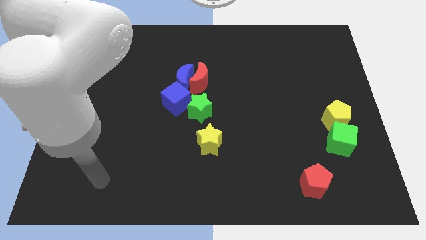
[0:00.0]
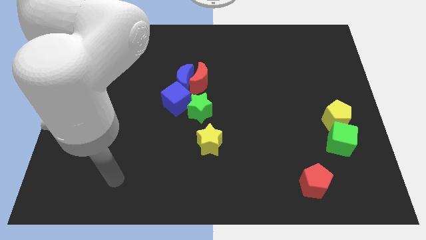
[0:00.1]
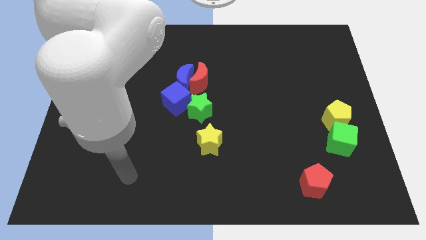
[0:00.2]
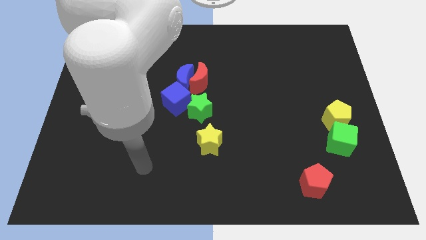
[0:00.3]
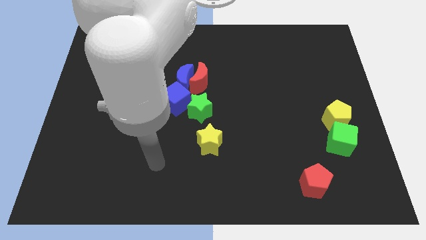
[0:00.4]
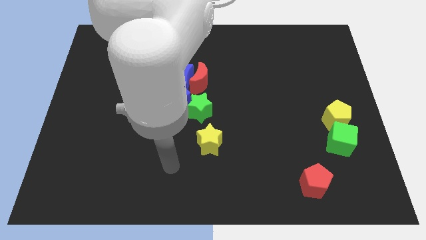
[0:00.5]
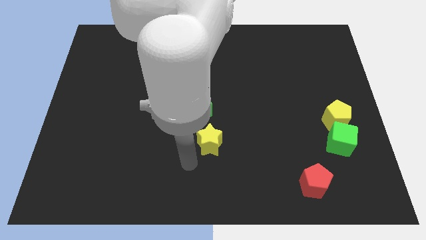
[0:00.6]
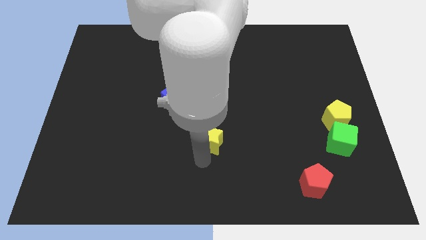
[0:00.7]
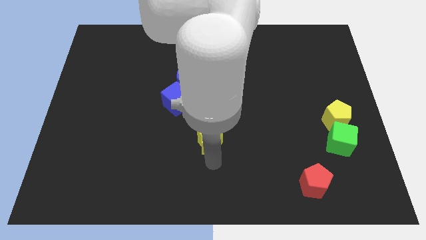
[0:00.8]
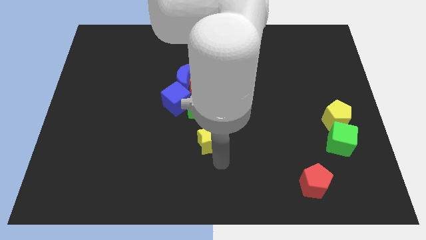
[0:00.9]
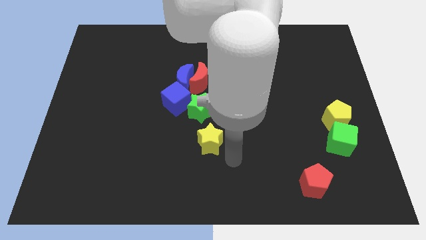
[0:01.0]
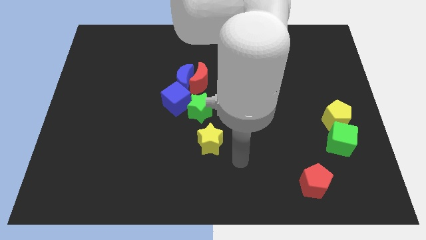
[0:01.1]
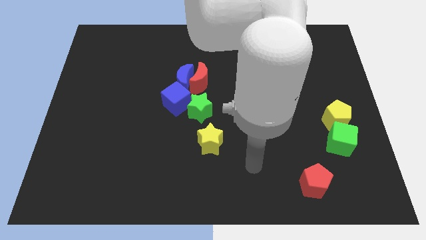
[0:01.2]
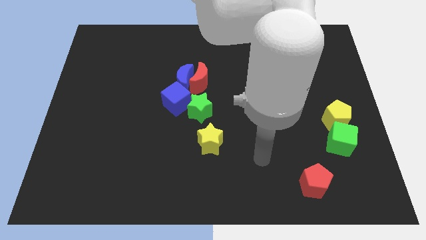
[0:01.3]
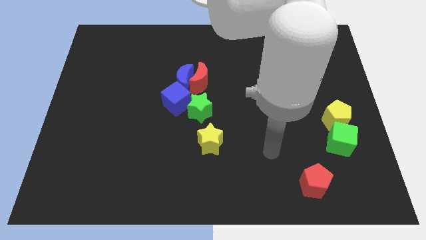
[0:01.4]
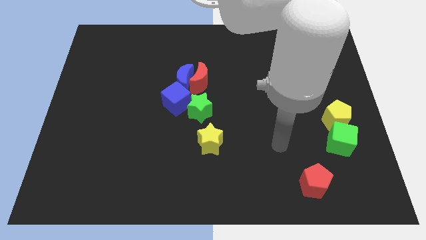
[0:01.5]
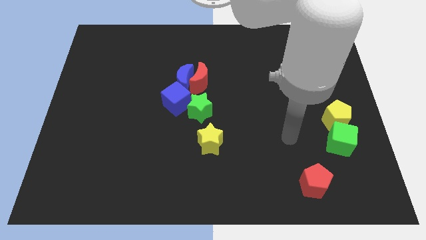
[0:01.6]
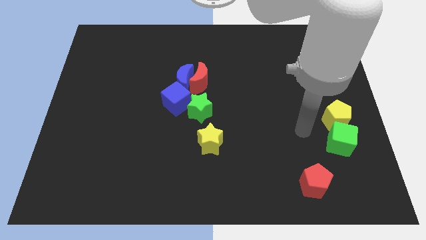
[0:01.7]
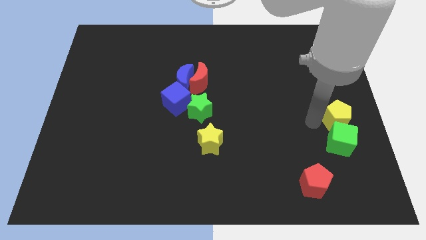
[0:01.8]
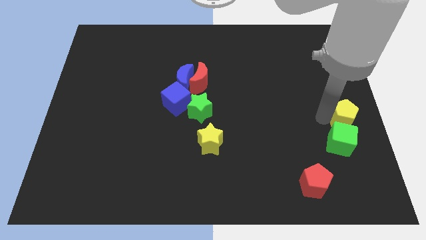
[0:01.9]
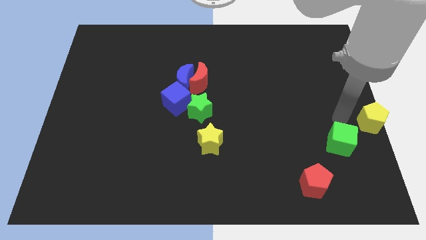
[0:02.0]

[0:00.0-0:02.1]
move the green cube away from the yellow pentagon

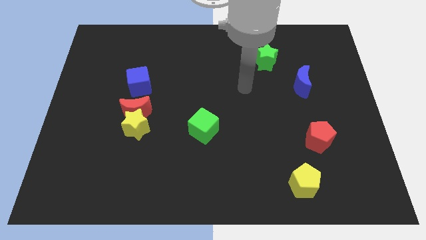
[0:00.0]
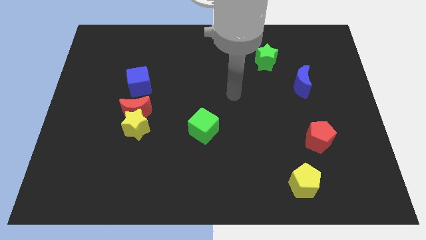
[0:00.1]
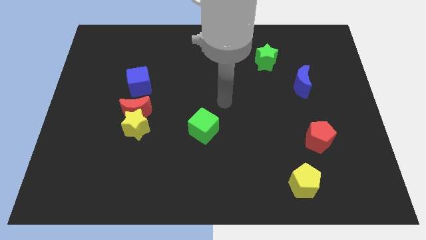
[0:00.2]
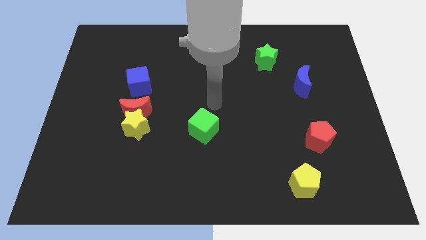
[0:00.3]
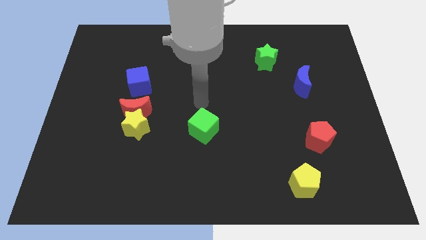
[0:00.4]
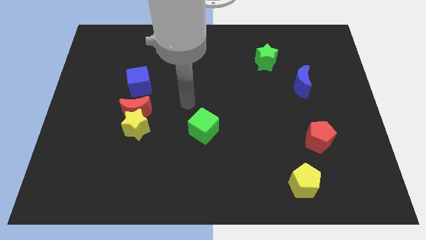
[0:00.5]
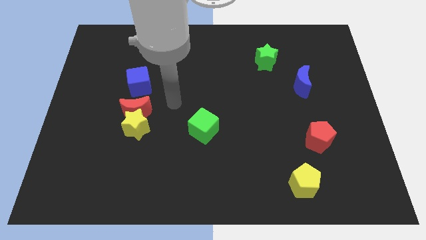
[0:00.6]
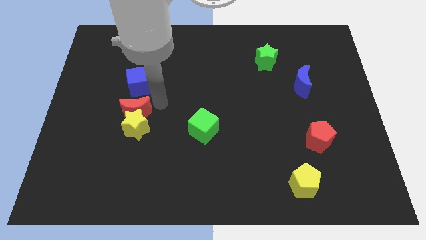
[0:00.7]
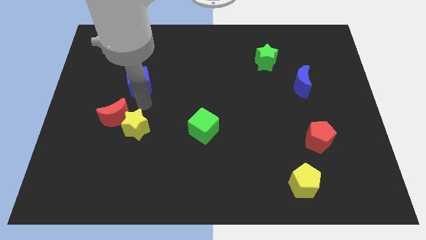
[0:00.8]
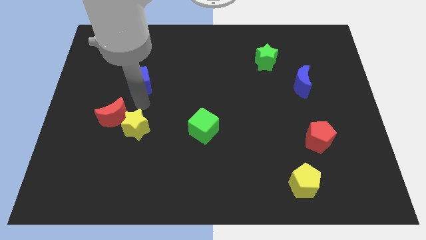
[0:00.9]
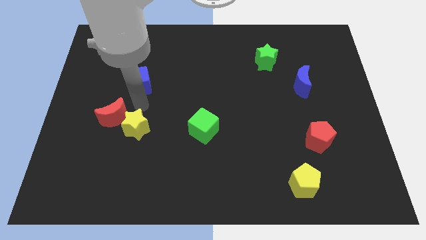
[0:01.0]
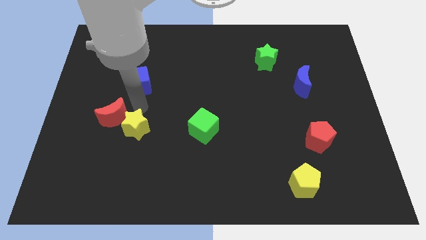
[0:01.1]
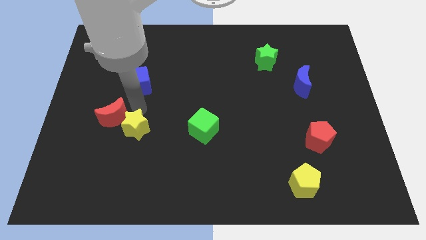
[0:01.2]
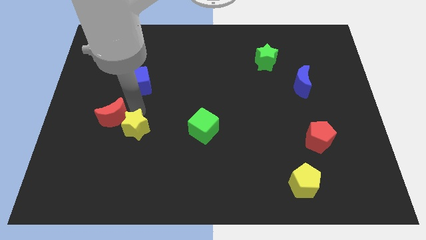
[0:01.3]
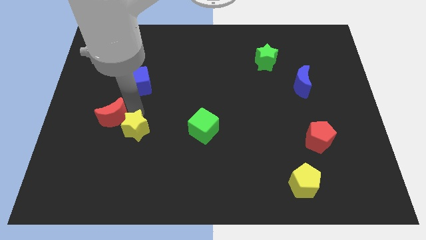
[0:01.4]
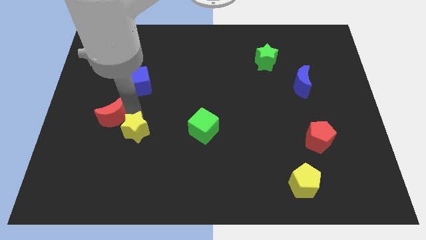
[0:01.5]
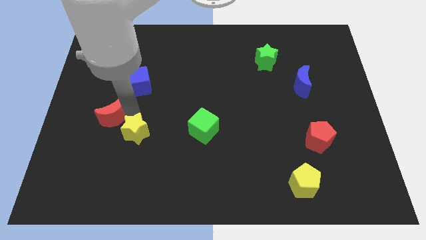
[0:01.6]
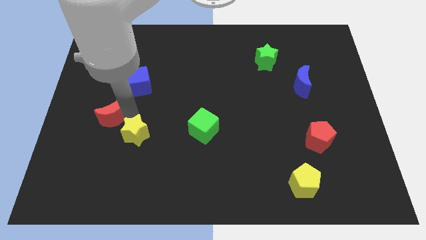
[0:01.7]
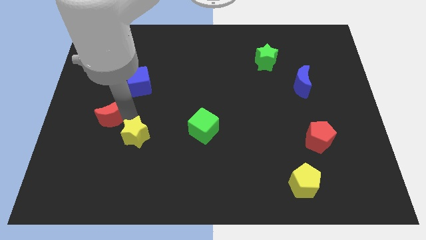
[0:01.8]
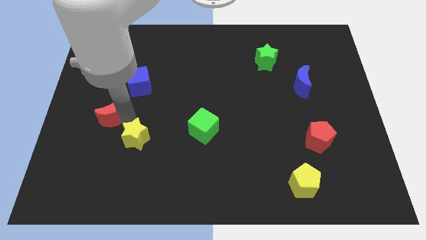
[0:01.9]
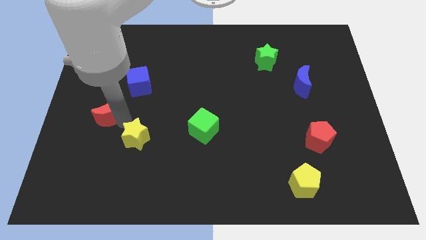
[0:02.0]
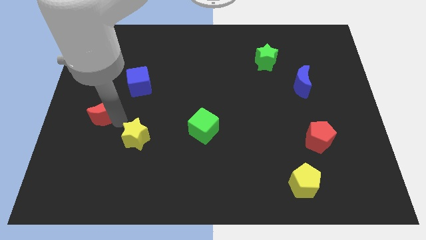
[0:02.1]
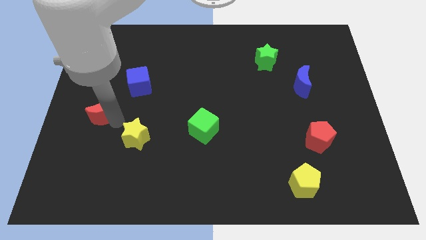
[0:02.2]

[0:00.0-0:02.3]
separate the yellow star from the red moon

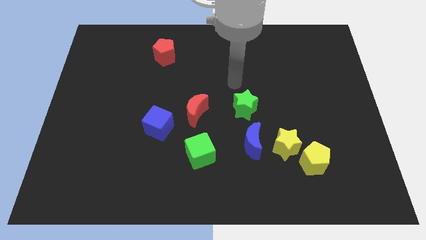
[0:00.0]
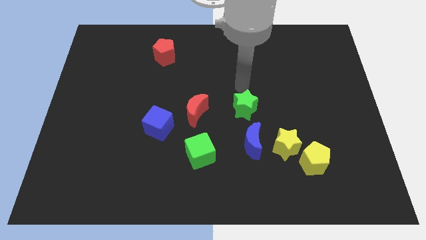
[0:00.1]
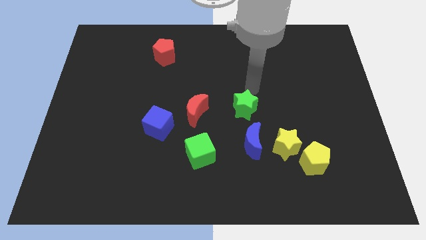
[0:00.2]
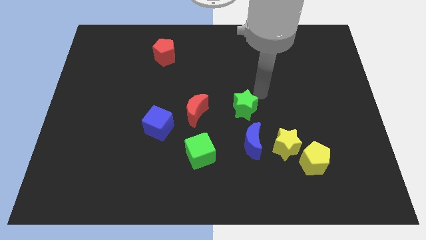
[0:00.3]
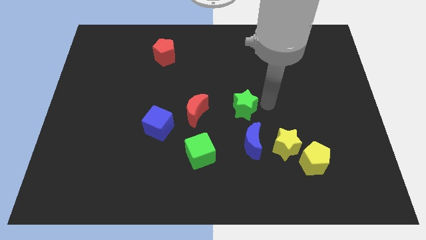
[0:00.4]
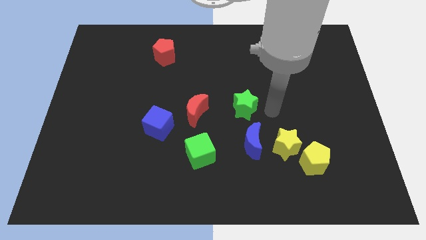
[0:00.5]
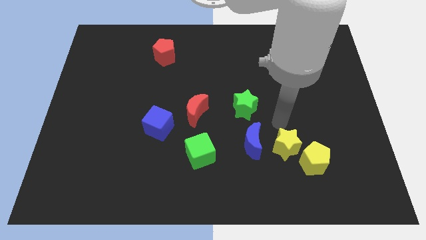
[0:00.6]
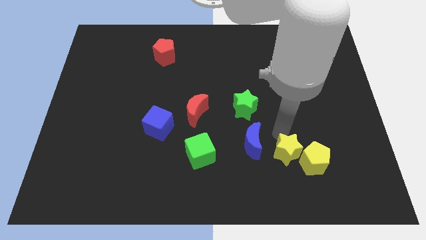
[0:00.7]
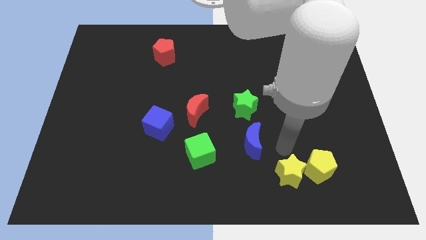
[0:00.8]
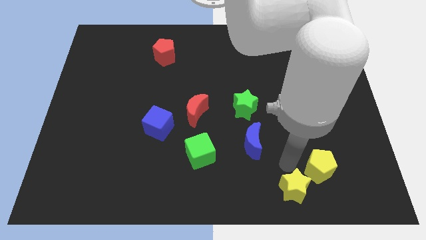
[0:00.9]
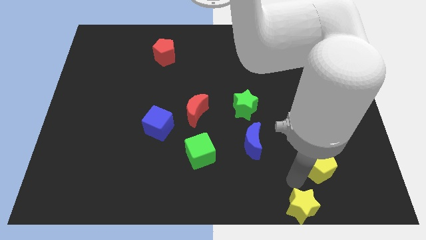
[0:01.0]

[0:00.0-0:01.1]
separate the yellow pentagon from the yellow star

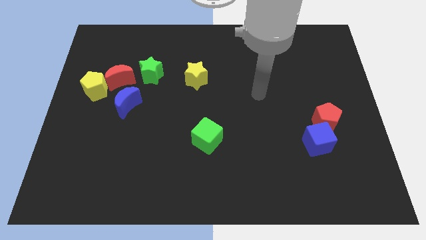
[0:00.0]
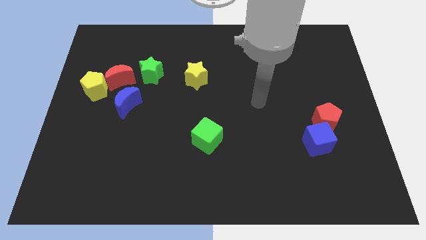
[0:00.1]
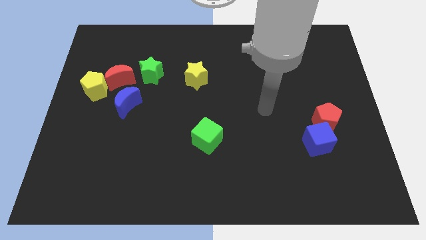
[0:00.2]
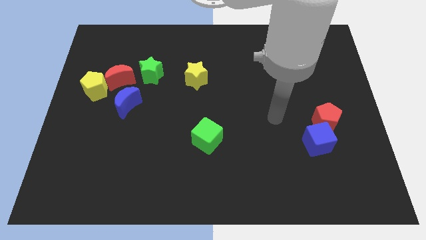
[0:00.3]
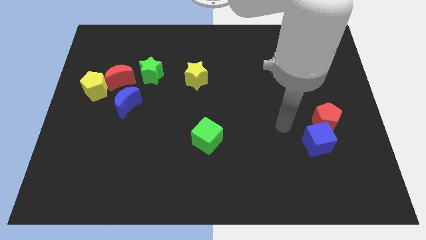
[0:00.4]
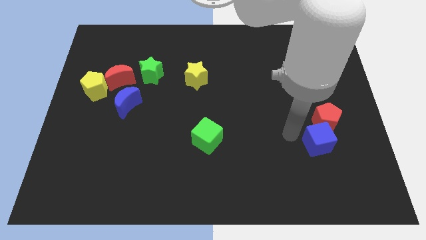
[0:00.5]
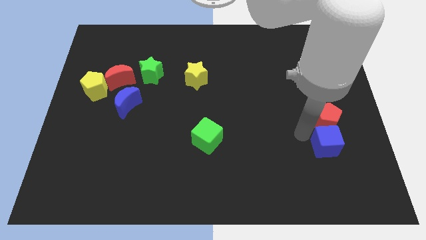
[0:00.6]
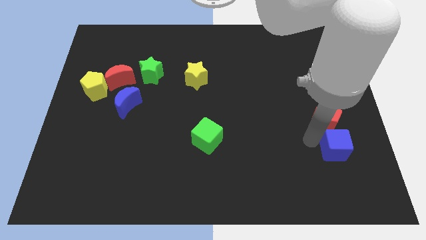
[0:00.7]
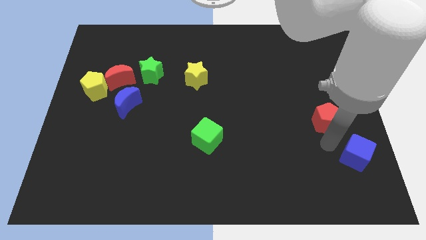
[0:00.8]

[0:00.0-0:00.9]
pull the red pentagon apart from the blue cube

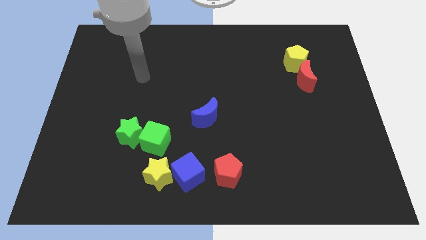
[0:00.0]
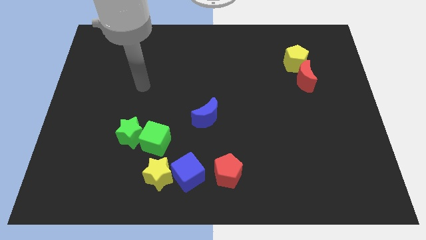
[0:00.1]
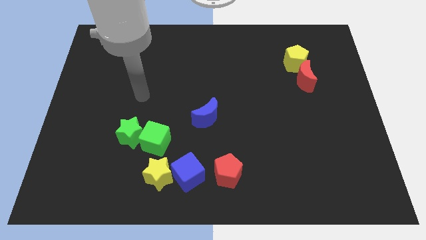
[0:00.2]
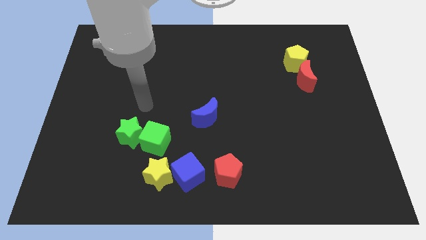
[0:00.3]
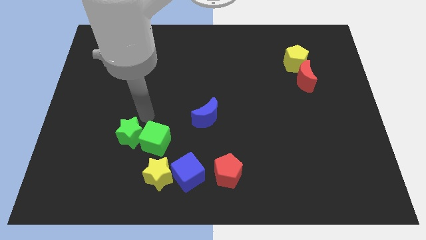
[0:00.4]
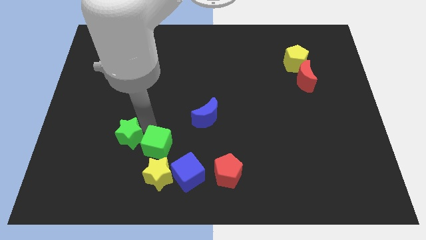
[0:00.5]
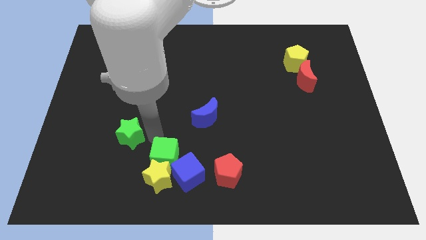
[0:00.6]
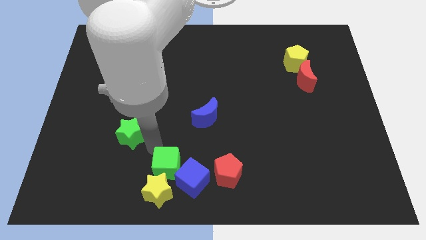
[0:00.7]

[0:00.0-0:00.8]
pull the green star apart from the green cube

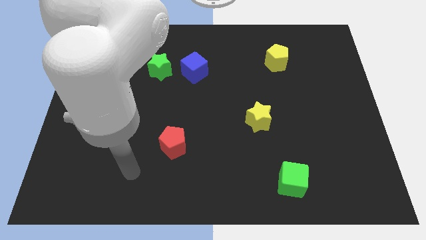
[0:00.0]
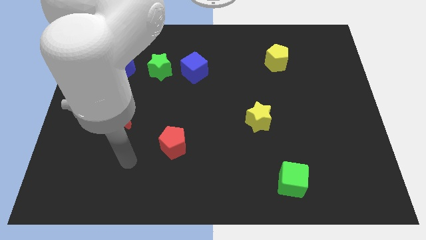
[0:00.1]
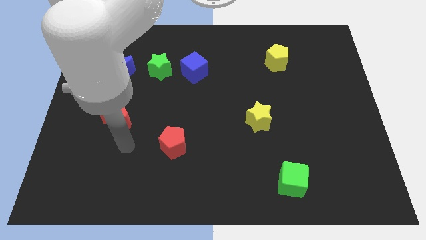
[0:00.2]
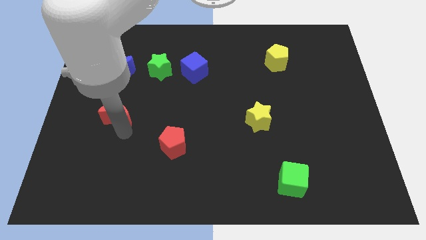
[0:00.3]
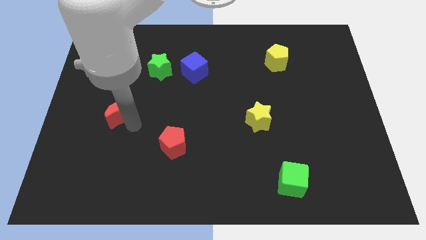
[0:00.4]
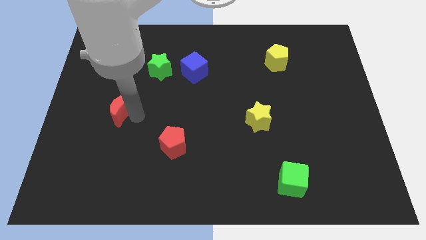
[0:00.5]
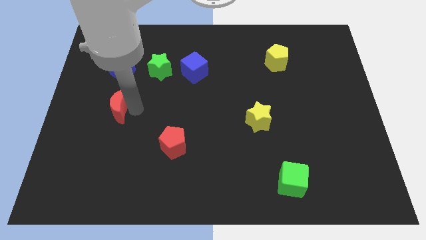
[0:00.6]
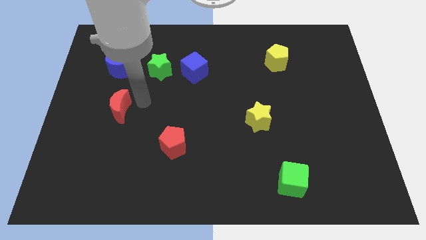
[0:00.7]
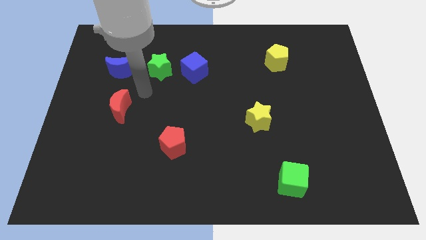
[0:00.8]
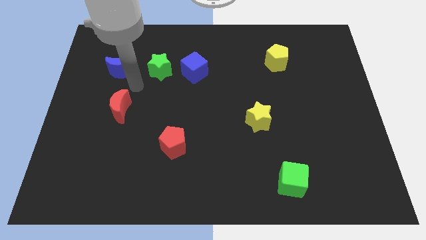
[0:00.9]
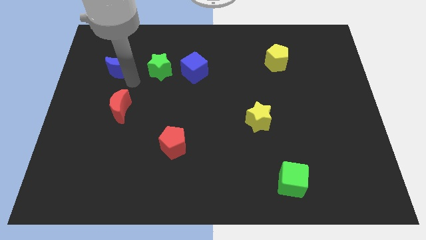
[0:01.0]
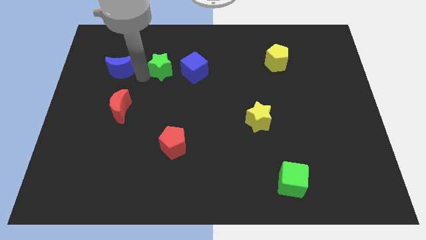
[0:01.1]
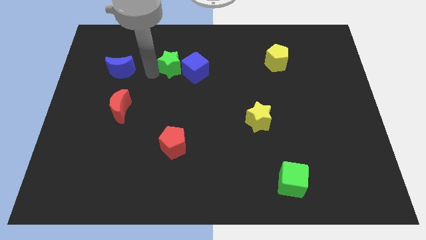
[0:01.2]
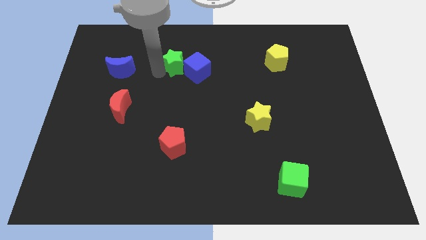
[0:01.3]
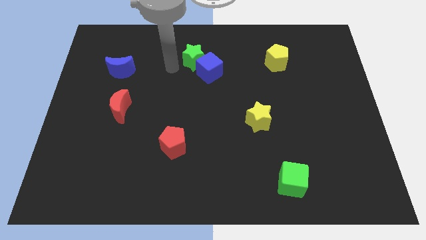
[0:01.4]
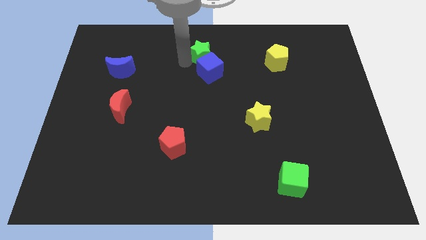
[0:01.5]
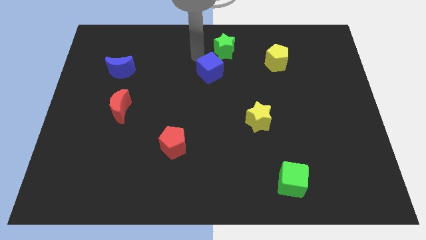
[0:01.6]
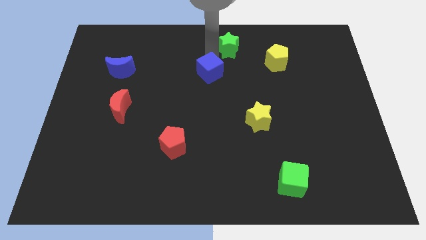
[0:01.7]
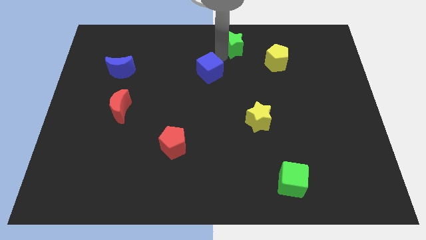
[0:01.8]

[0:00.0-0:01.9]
separate the blue cube from the green star
